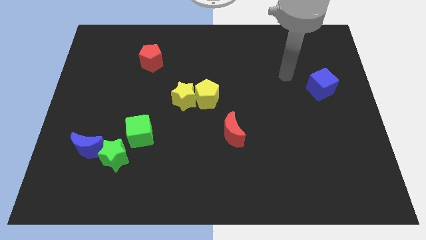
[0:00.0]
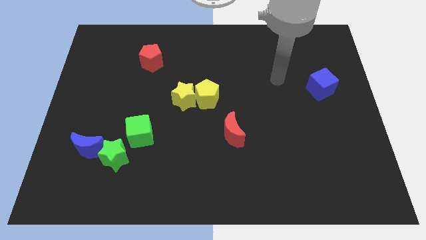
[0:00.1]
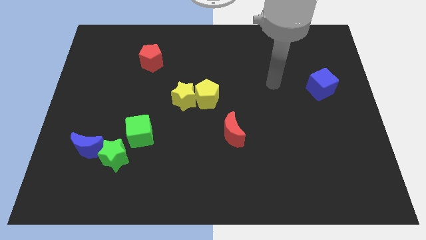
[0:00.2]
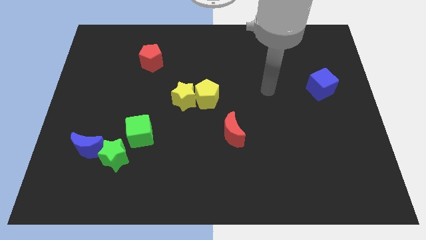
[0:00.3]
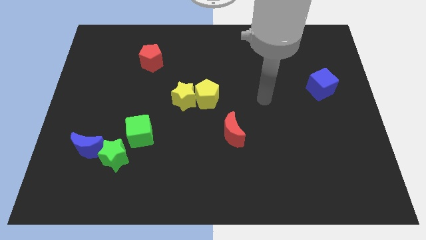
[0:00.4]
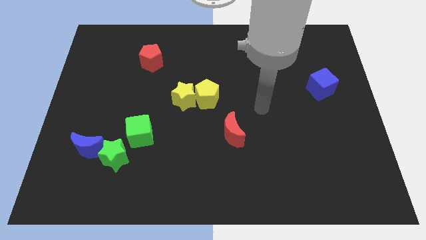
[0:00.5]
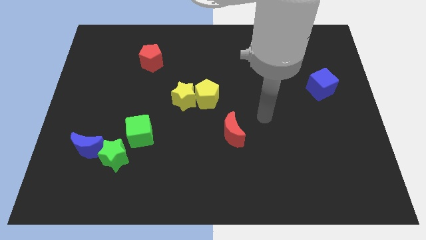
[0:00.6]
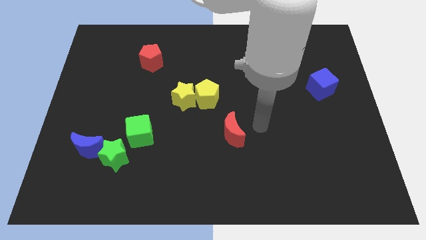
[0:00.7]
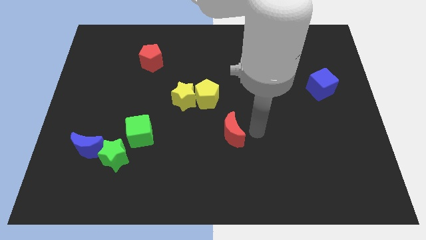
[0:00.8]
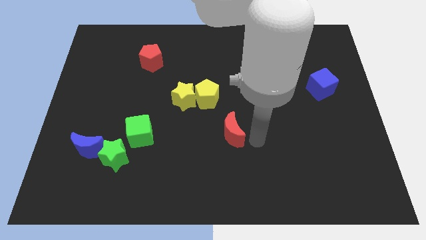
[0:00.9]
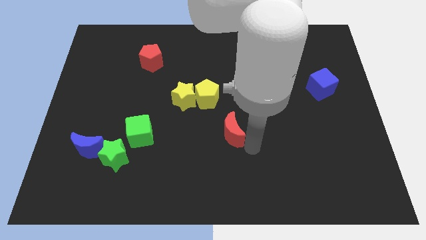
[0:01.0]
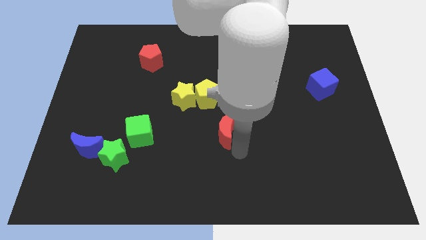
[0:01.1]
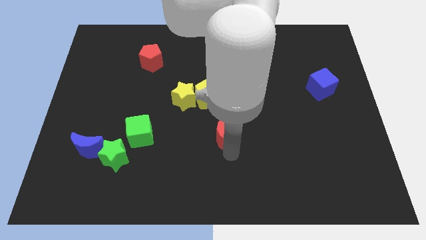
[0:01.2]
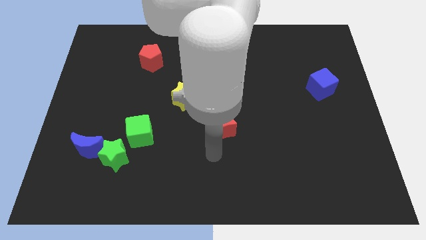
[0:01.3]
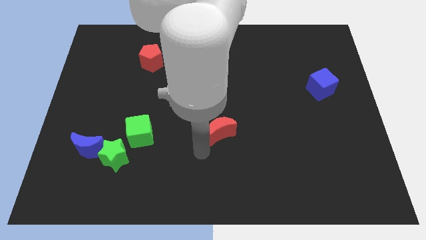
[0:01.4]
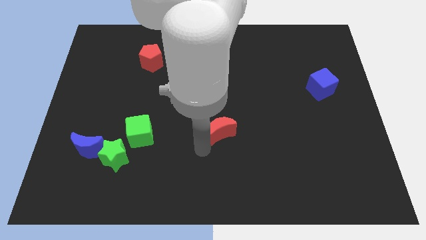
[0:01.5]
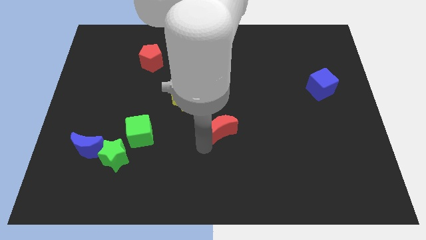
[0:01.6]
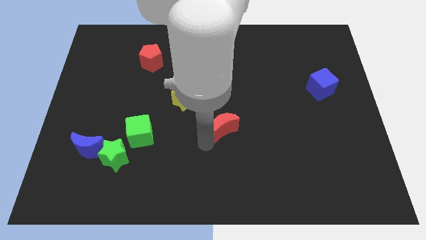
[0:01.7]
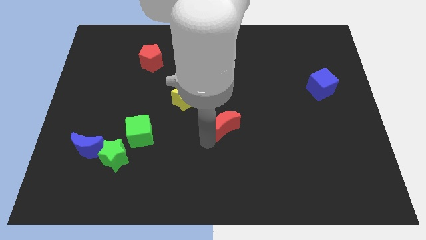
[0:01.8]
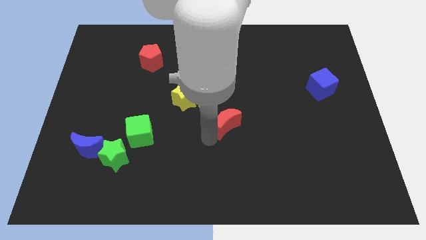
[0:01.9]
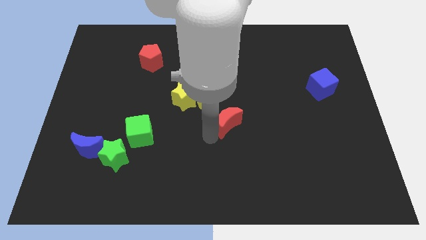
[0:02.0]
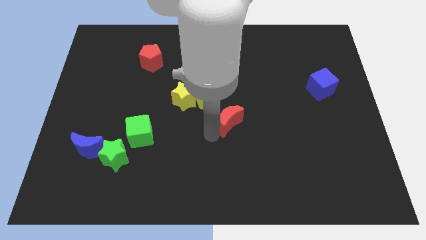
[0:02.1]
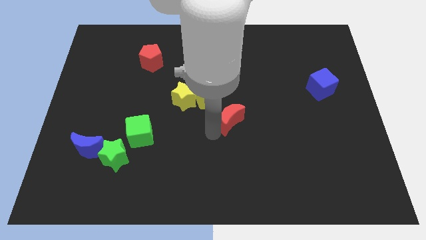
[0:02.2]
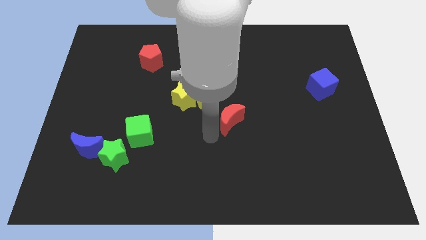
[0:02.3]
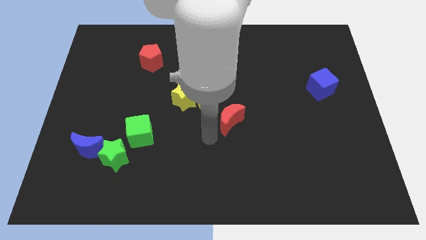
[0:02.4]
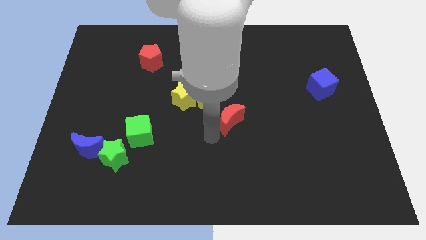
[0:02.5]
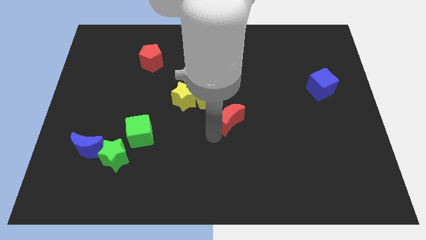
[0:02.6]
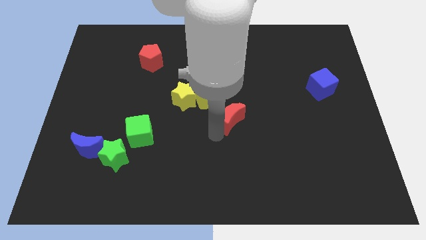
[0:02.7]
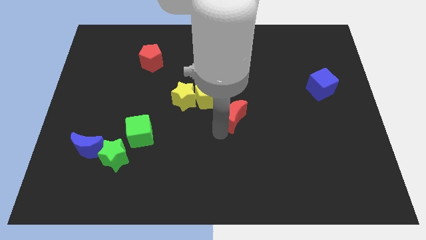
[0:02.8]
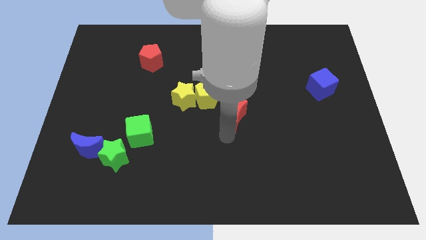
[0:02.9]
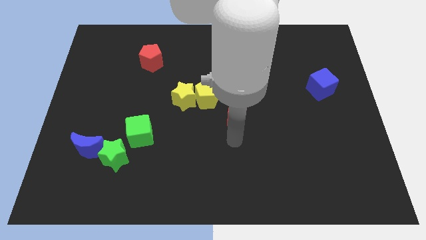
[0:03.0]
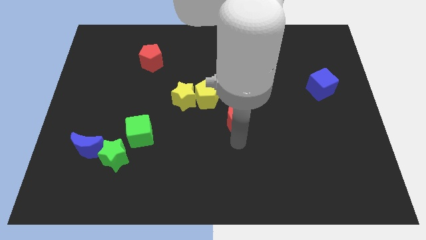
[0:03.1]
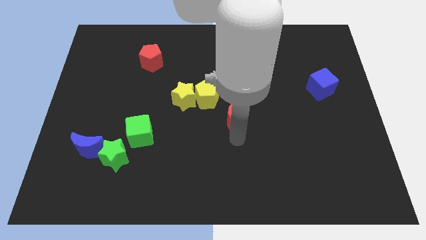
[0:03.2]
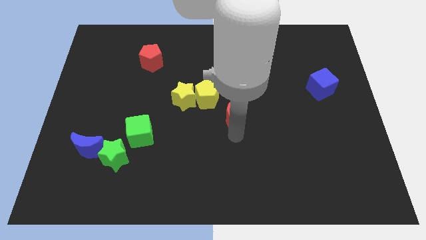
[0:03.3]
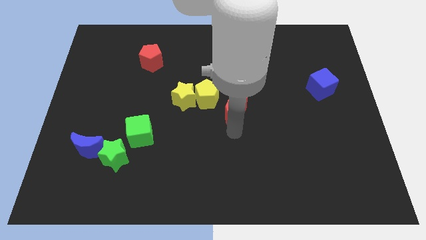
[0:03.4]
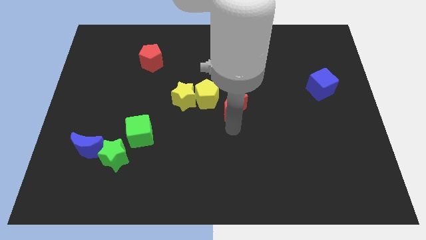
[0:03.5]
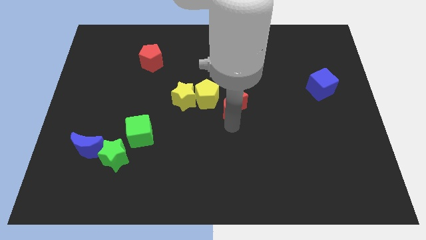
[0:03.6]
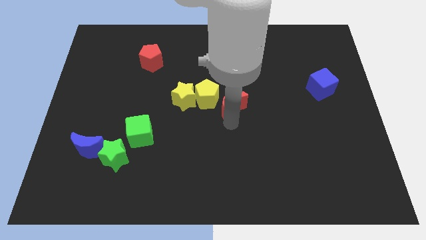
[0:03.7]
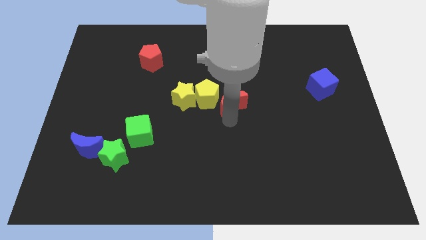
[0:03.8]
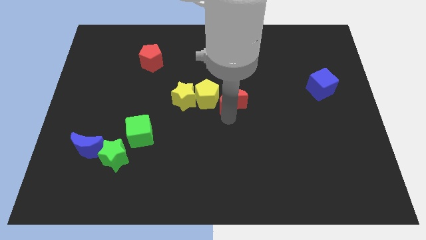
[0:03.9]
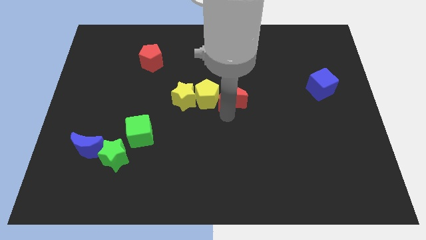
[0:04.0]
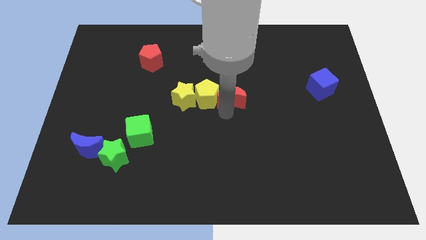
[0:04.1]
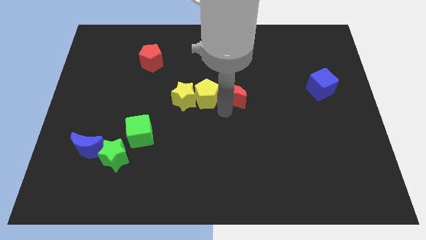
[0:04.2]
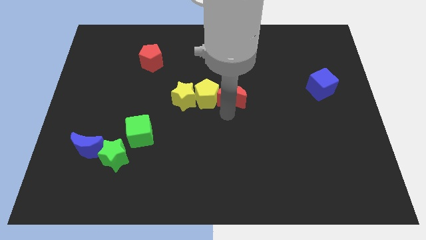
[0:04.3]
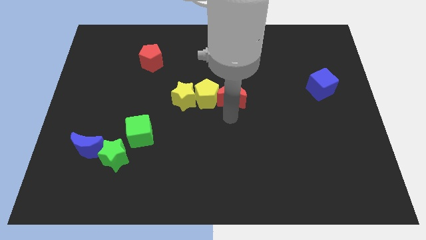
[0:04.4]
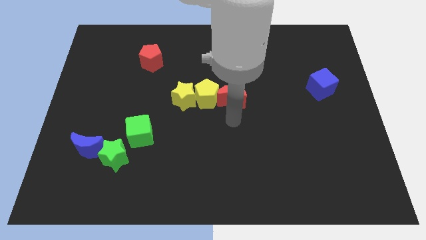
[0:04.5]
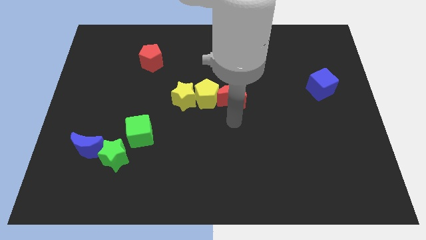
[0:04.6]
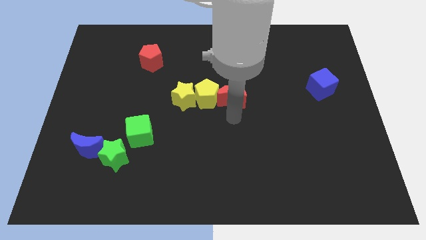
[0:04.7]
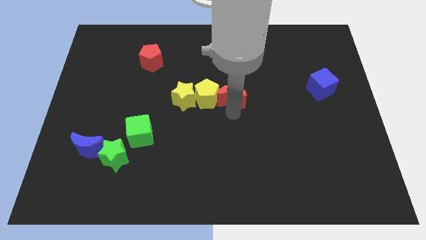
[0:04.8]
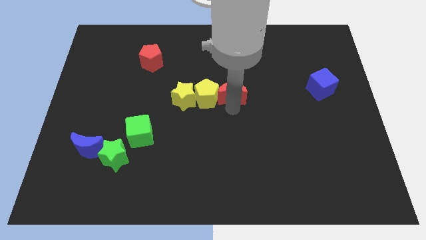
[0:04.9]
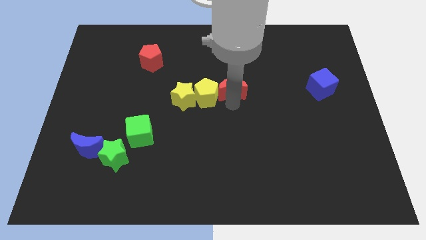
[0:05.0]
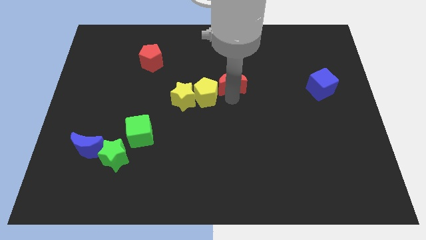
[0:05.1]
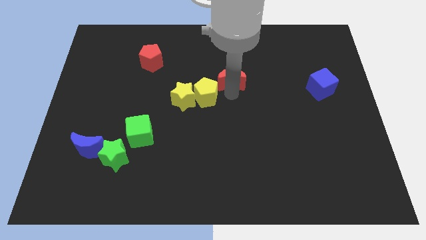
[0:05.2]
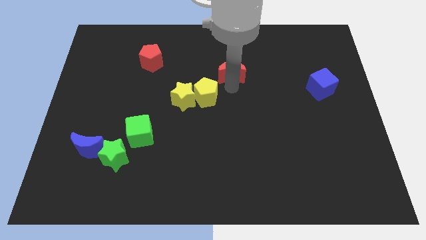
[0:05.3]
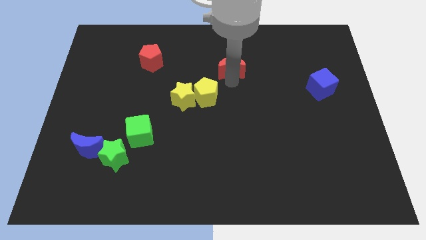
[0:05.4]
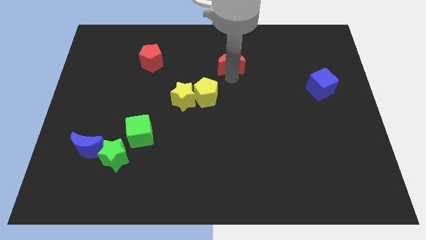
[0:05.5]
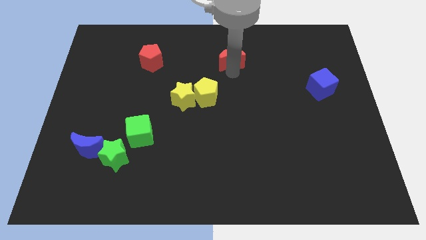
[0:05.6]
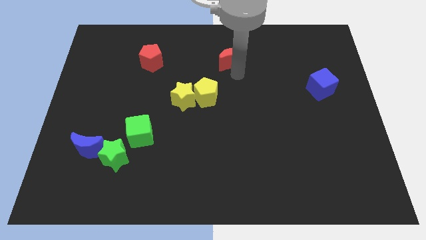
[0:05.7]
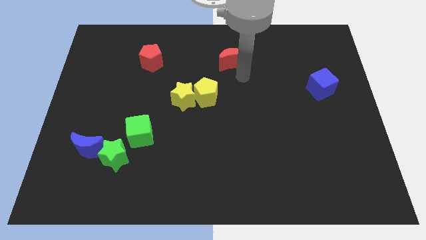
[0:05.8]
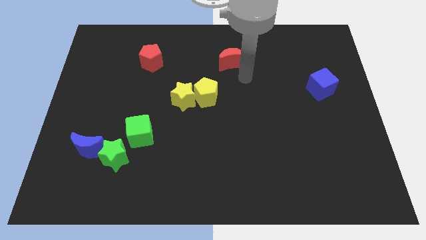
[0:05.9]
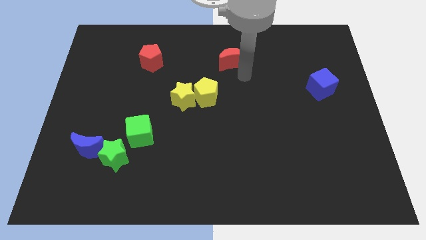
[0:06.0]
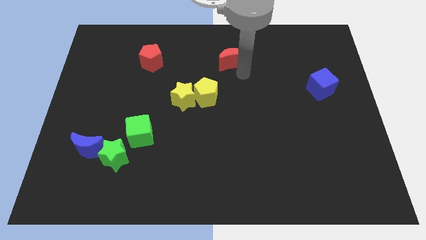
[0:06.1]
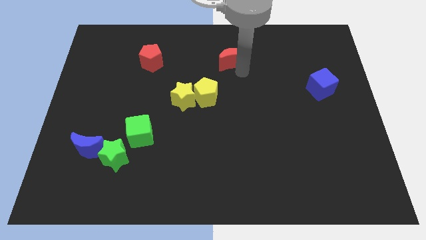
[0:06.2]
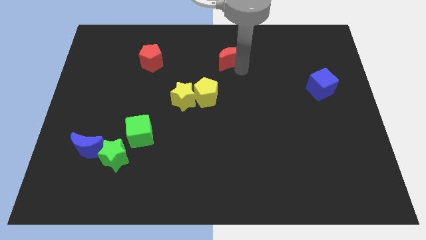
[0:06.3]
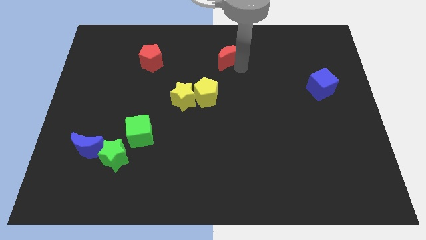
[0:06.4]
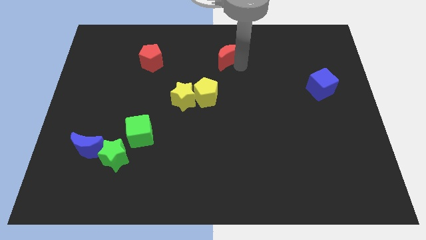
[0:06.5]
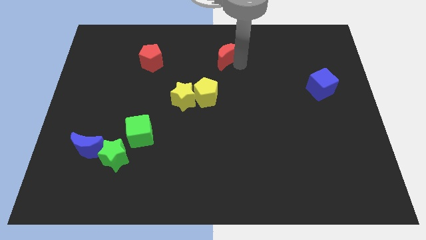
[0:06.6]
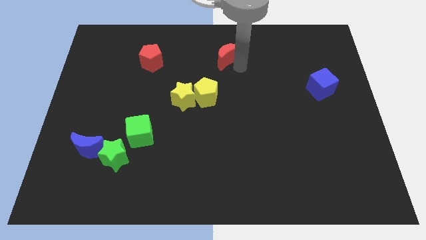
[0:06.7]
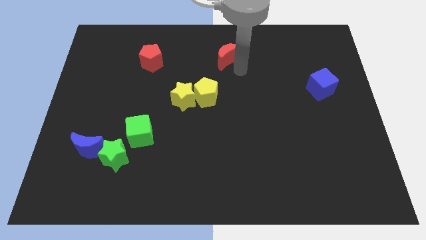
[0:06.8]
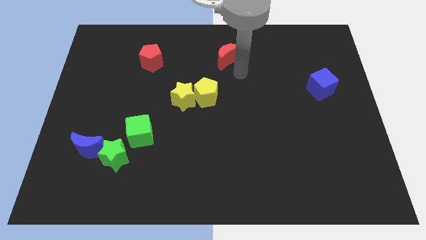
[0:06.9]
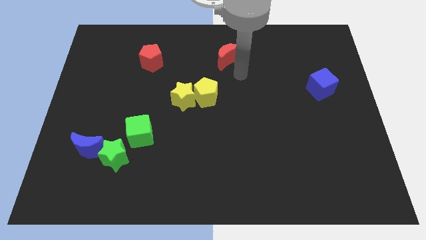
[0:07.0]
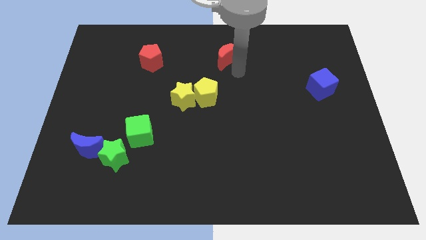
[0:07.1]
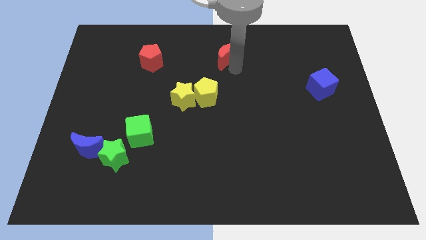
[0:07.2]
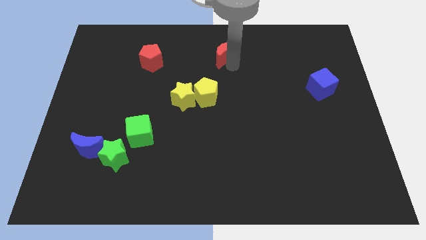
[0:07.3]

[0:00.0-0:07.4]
move the red moon to the top side
